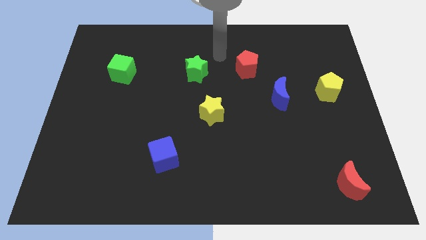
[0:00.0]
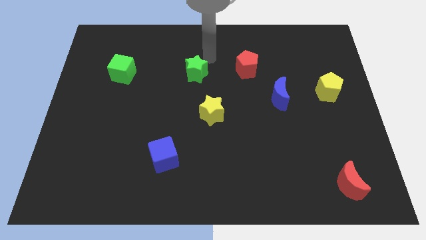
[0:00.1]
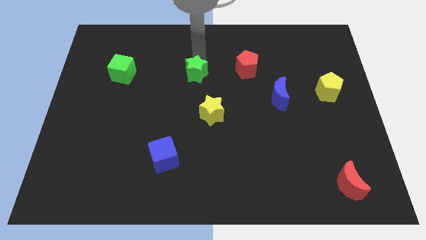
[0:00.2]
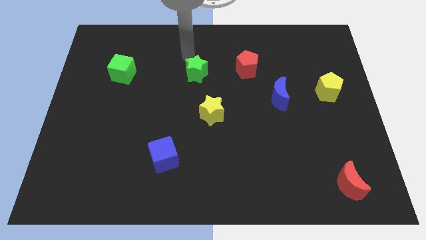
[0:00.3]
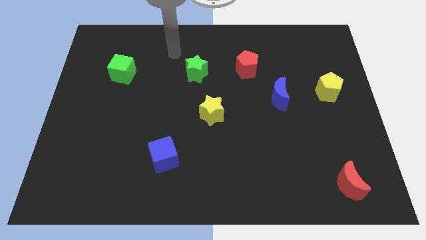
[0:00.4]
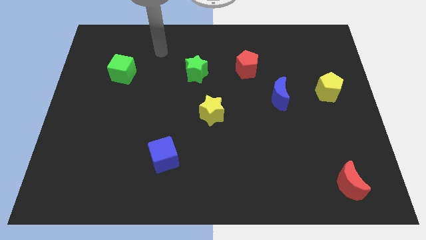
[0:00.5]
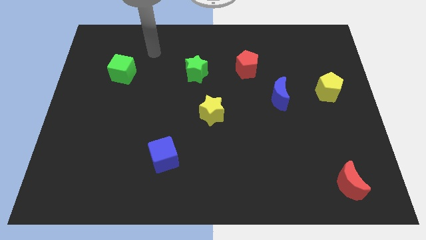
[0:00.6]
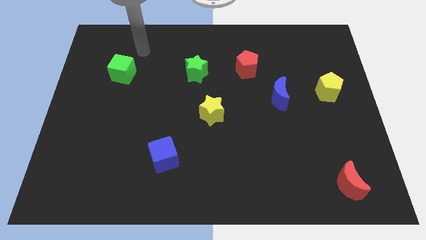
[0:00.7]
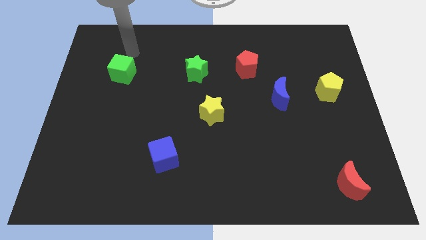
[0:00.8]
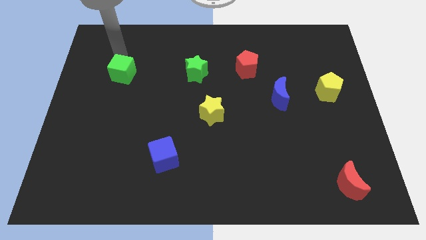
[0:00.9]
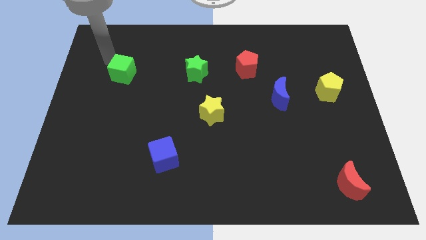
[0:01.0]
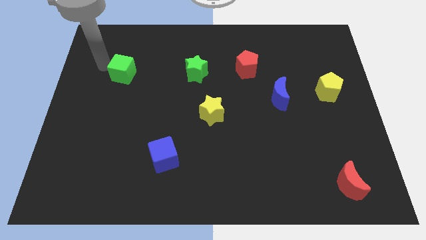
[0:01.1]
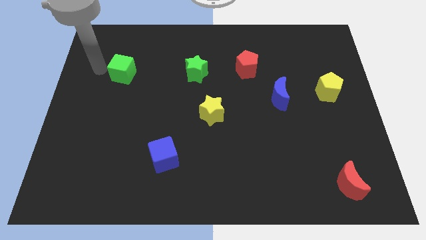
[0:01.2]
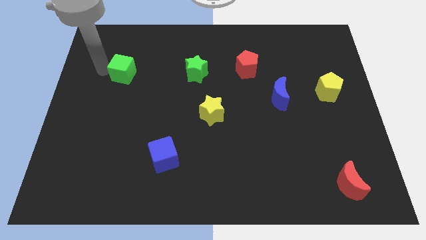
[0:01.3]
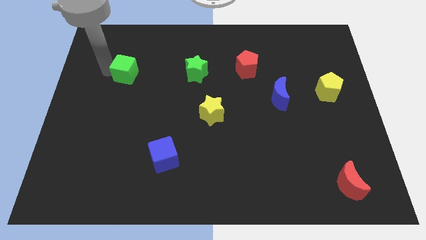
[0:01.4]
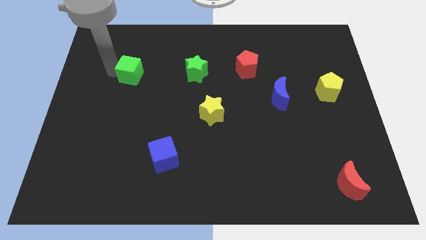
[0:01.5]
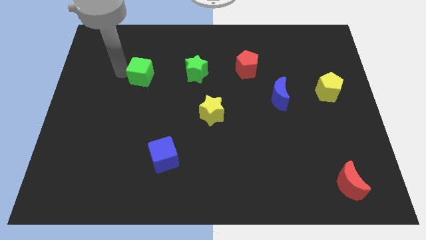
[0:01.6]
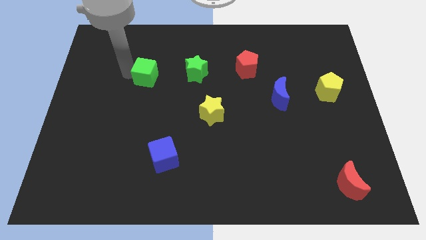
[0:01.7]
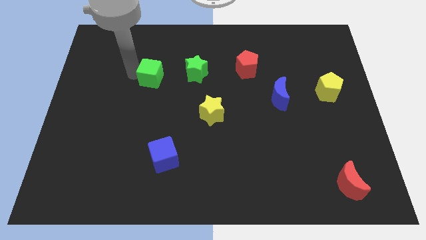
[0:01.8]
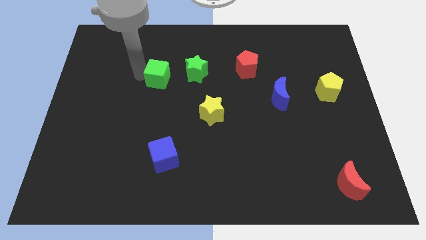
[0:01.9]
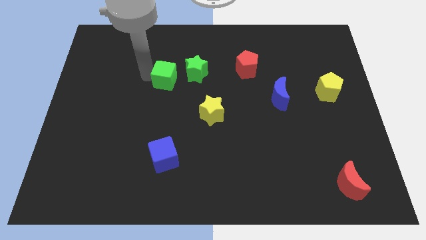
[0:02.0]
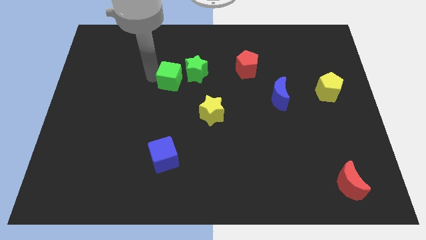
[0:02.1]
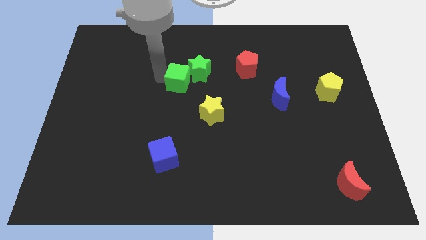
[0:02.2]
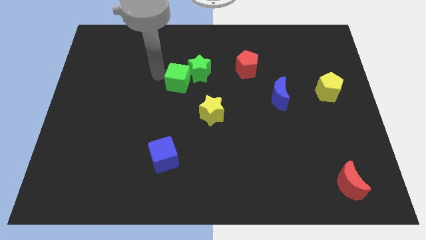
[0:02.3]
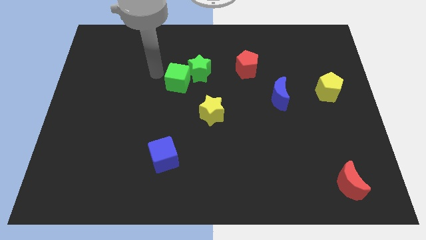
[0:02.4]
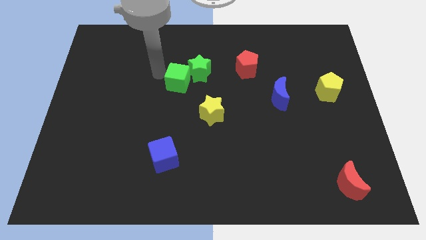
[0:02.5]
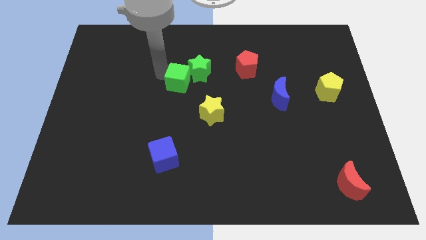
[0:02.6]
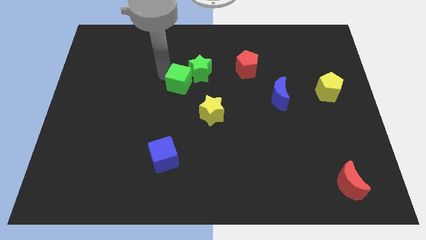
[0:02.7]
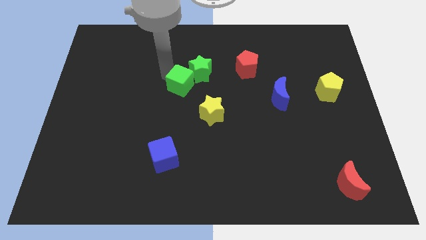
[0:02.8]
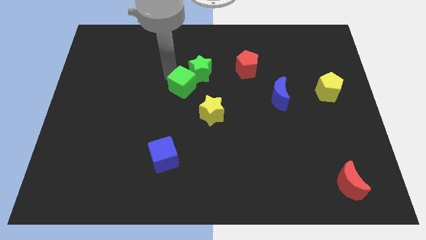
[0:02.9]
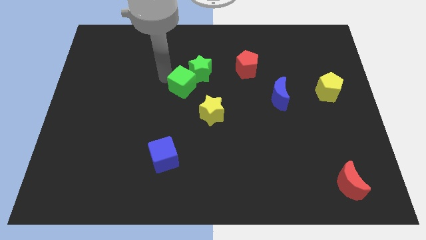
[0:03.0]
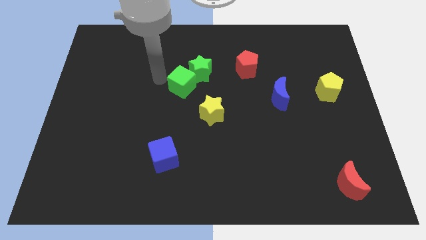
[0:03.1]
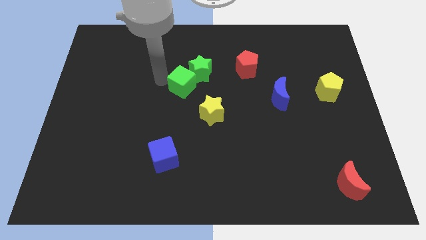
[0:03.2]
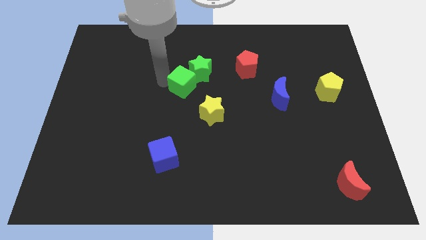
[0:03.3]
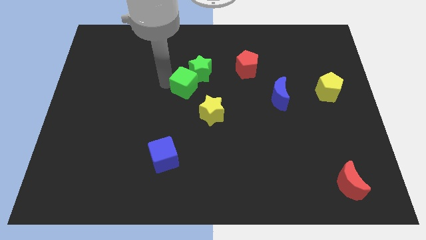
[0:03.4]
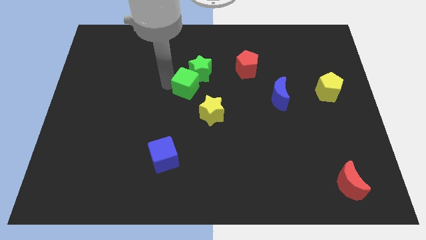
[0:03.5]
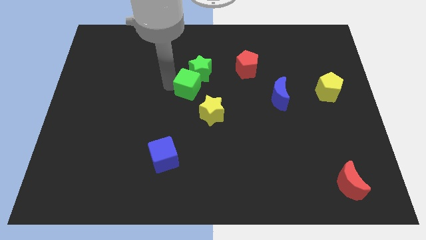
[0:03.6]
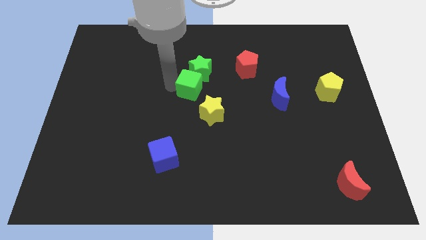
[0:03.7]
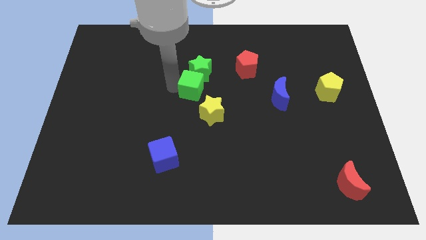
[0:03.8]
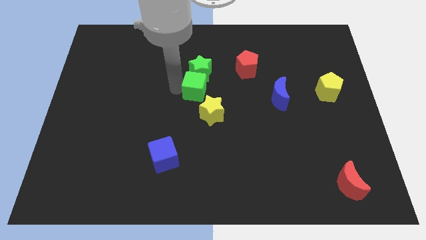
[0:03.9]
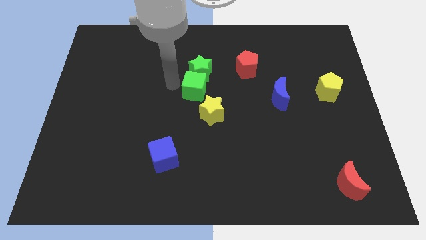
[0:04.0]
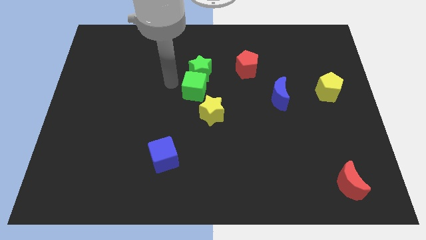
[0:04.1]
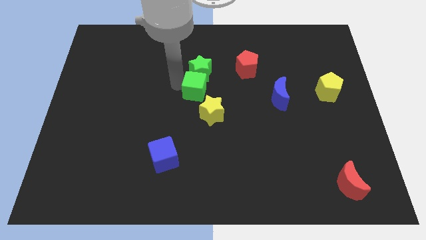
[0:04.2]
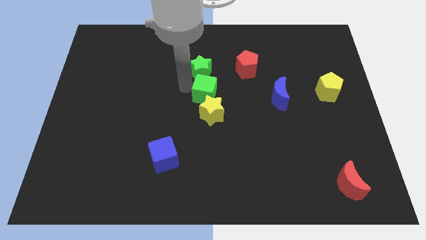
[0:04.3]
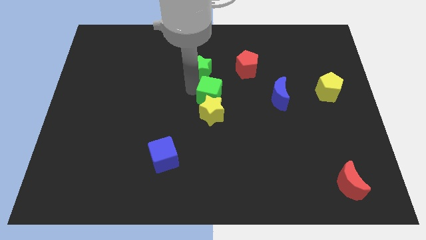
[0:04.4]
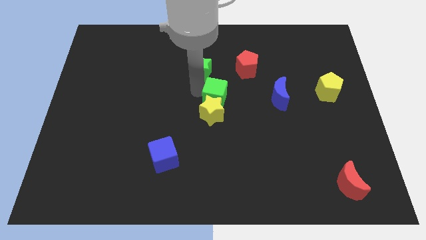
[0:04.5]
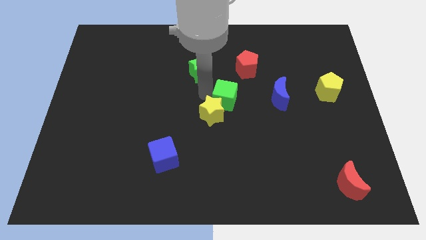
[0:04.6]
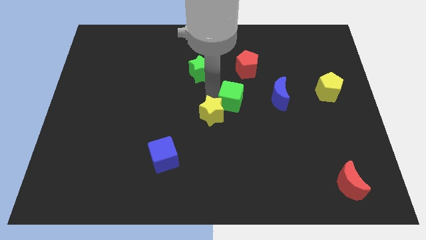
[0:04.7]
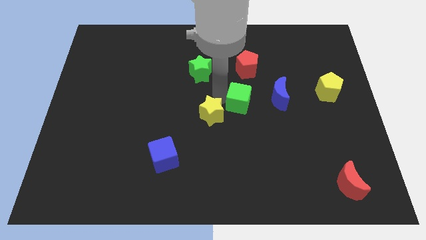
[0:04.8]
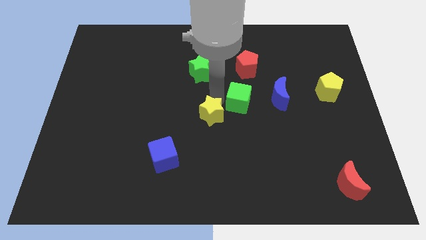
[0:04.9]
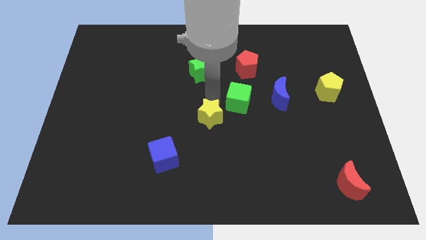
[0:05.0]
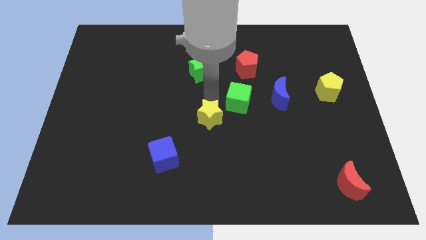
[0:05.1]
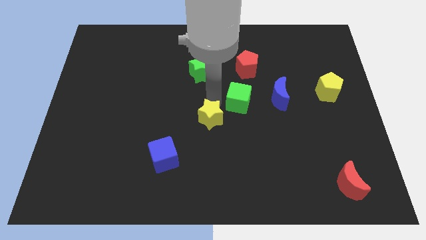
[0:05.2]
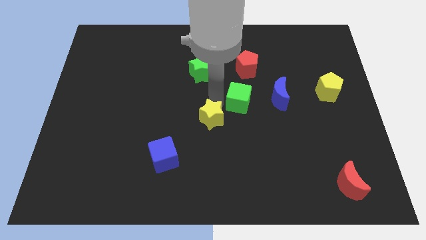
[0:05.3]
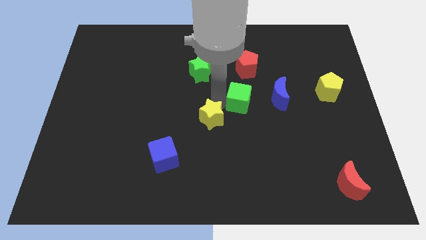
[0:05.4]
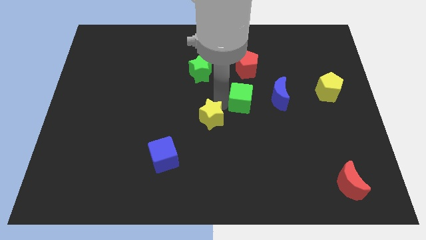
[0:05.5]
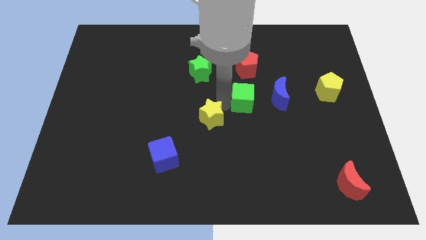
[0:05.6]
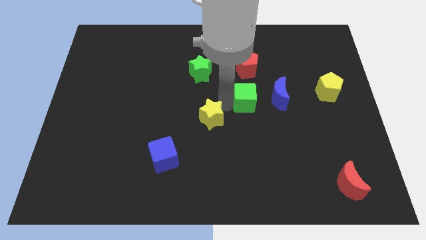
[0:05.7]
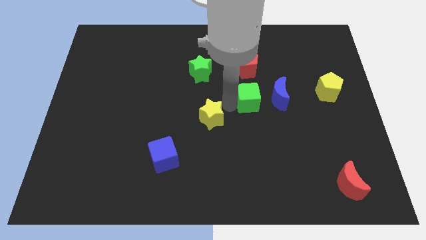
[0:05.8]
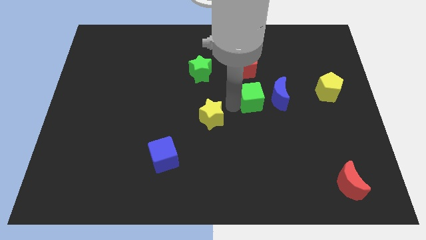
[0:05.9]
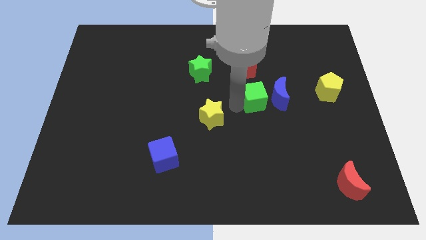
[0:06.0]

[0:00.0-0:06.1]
put the green cube towards the blue moon
